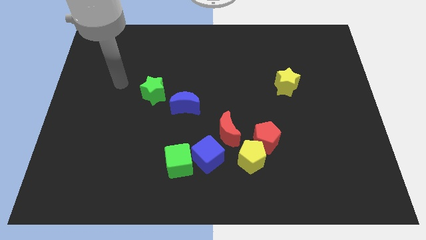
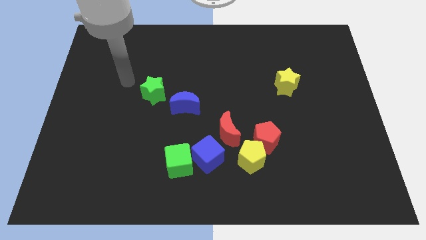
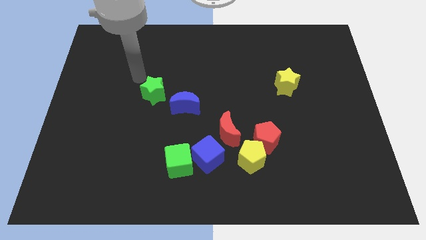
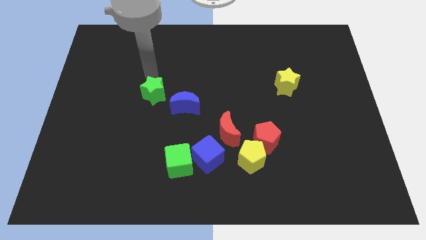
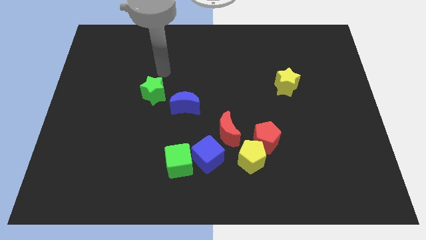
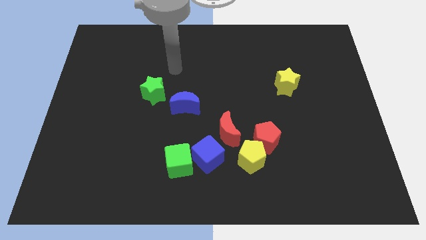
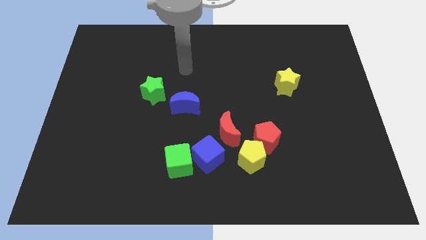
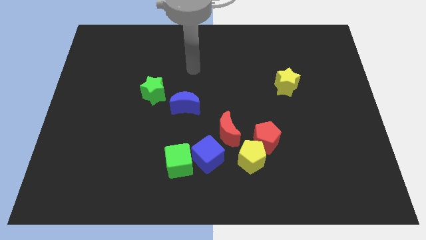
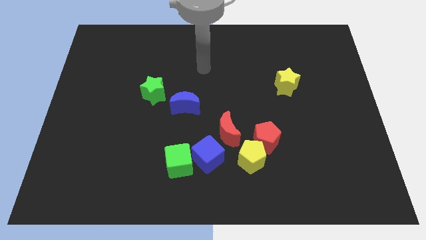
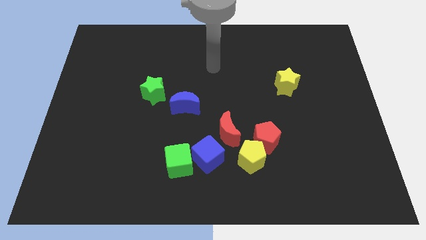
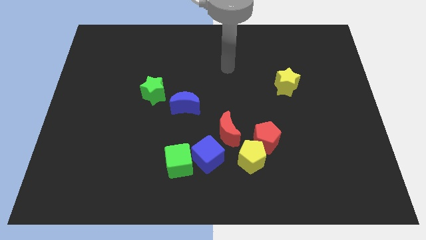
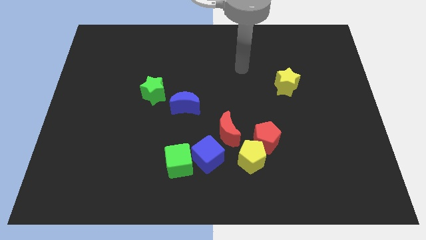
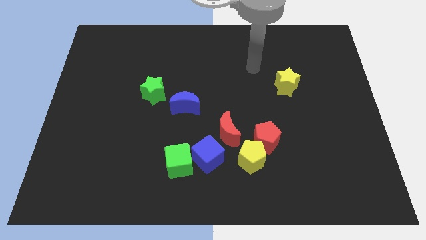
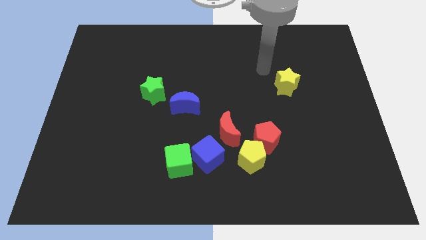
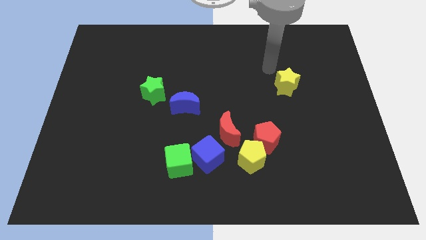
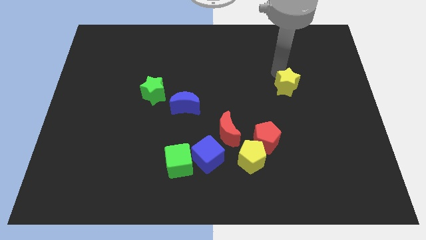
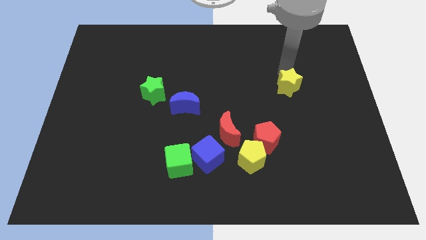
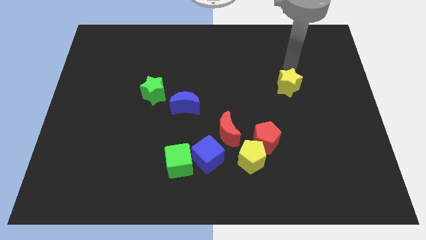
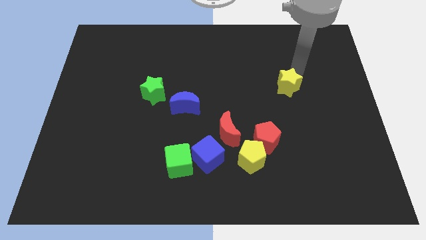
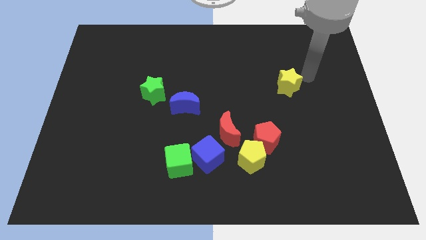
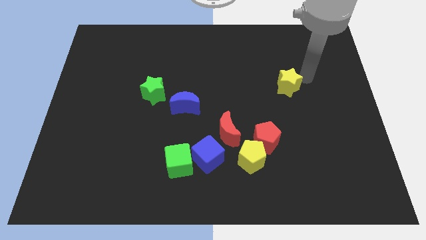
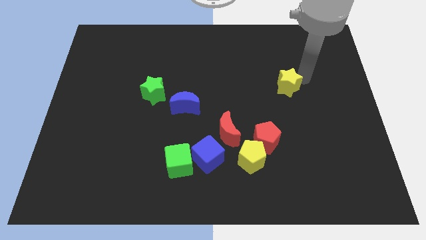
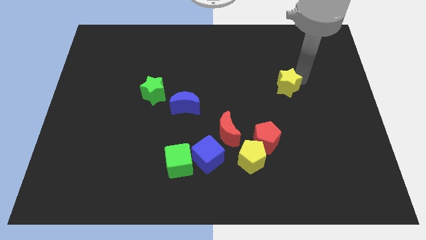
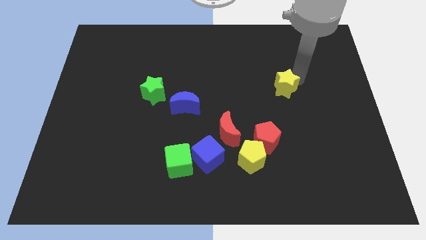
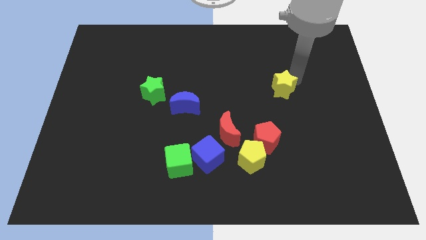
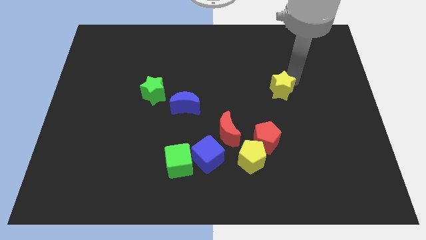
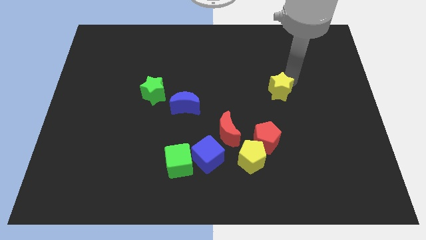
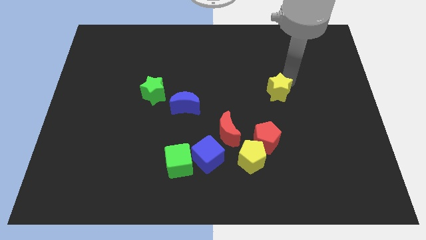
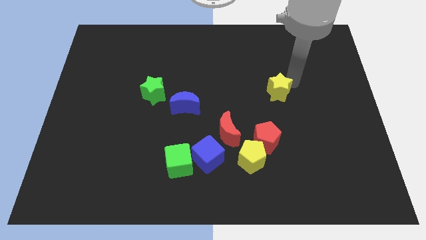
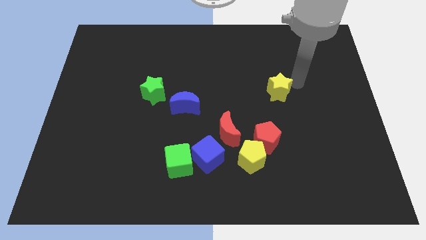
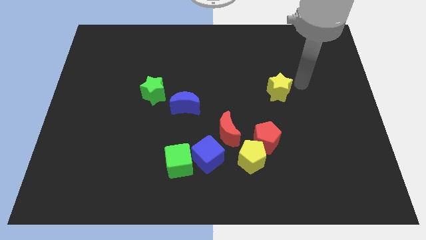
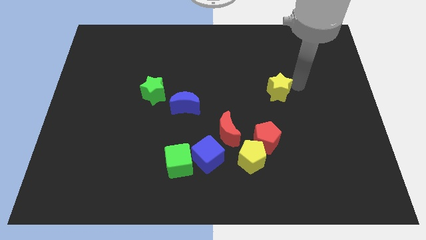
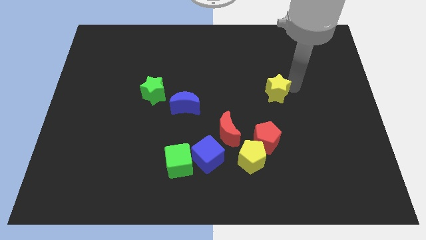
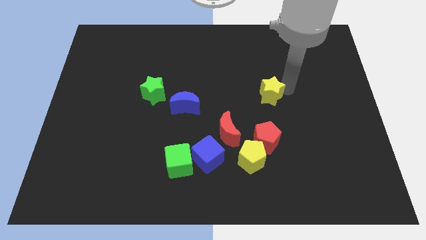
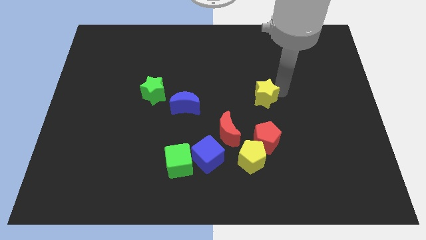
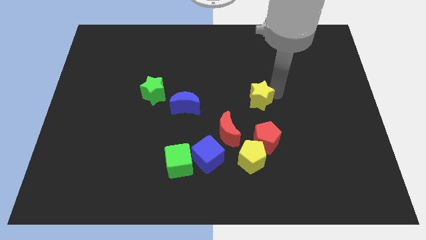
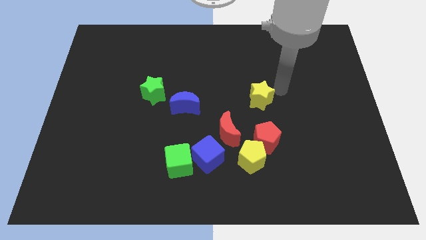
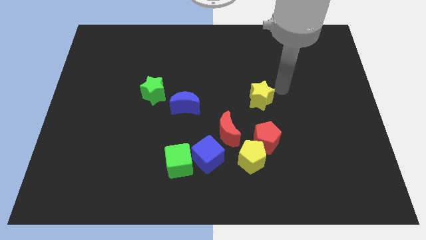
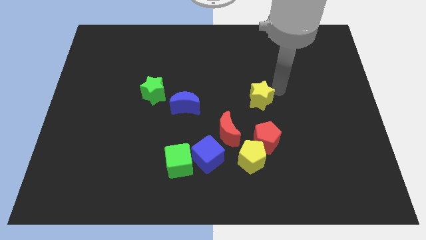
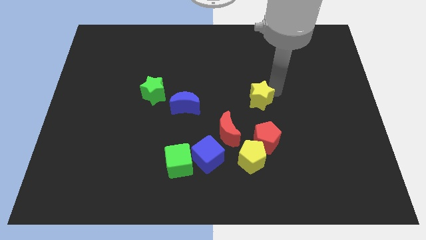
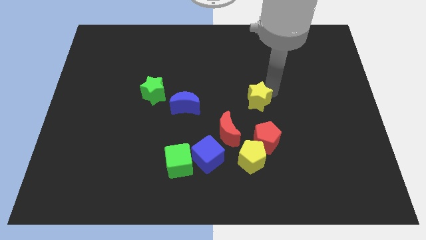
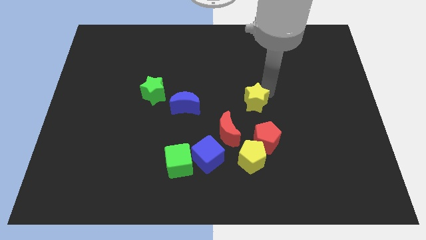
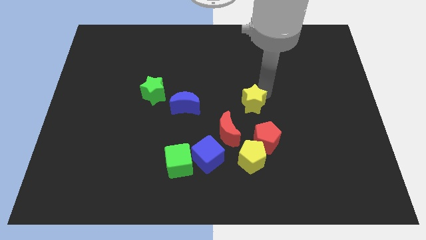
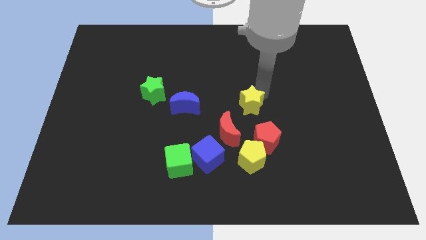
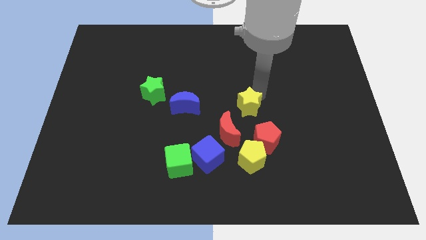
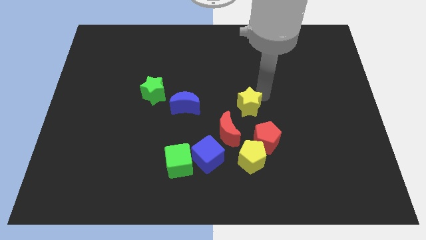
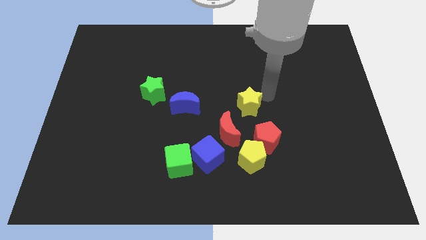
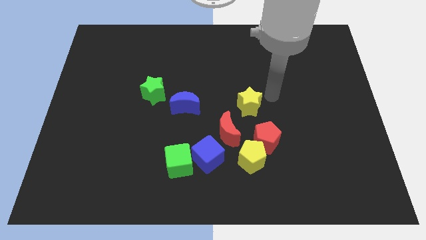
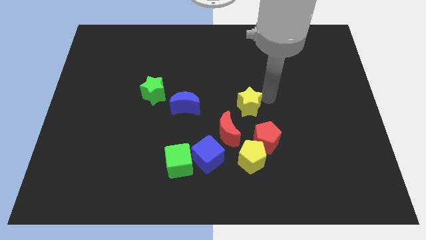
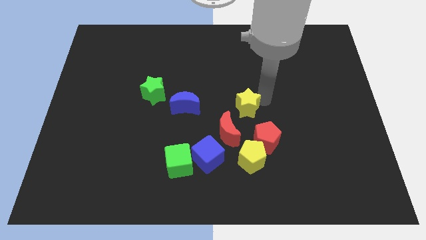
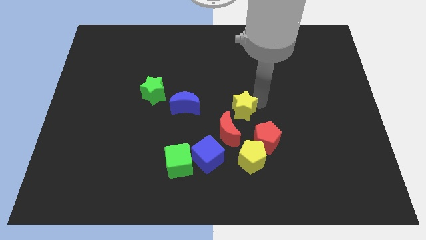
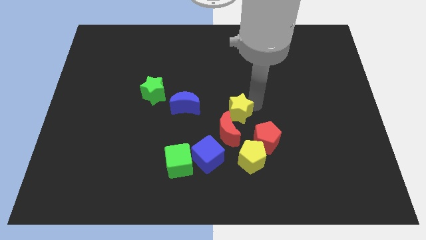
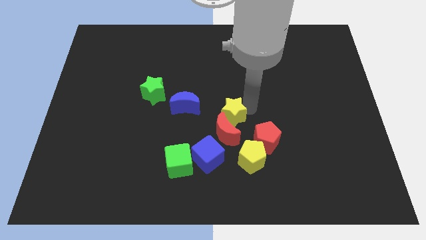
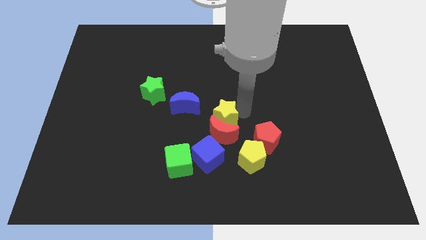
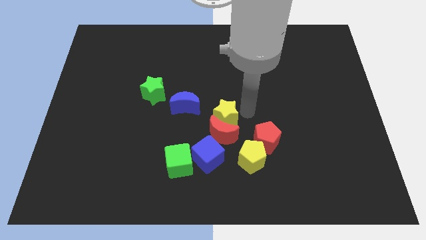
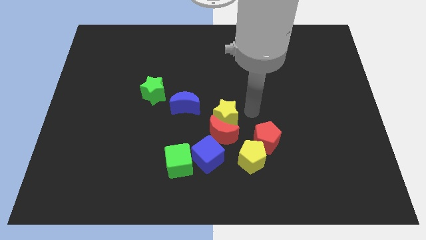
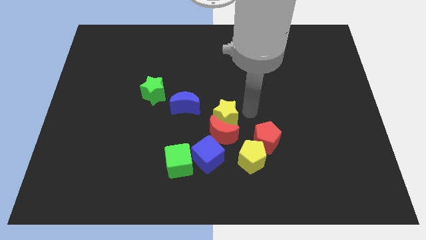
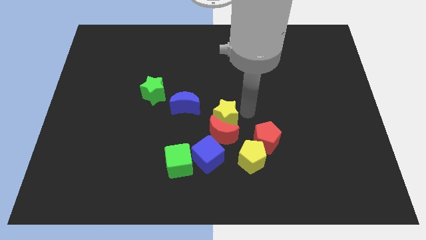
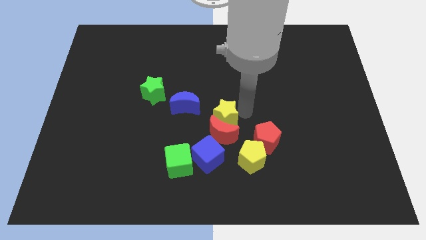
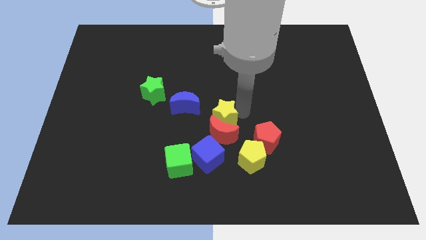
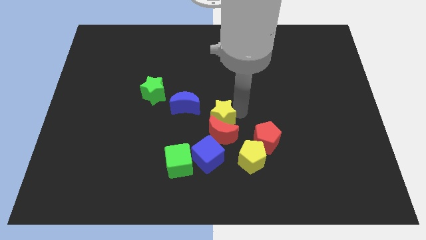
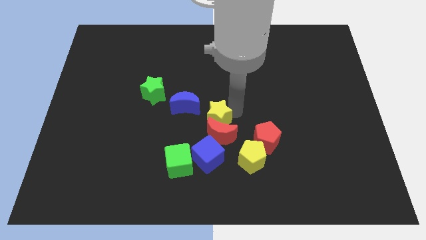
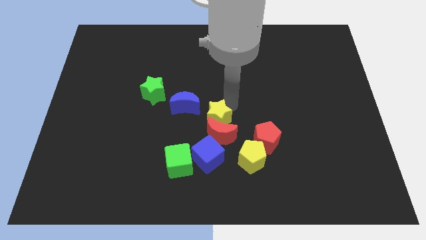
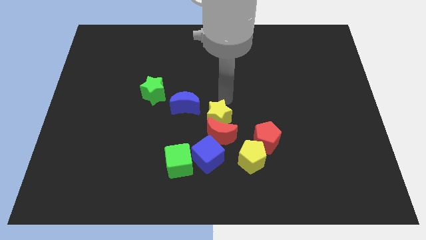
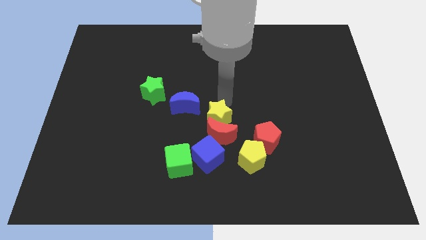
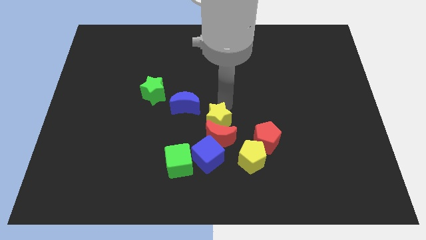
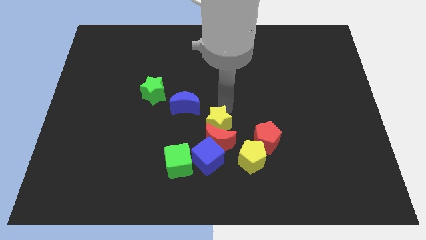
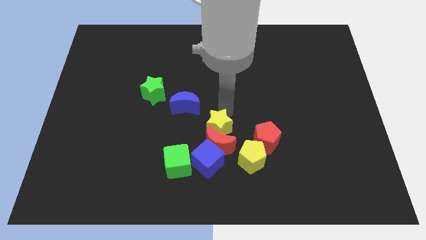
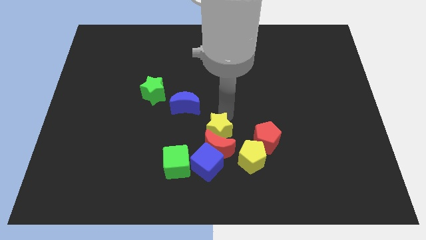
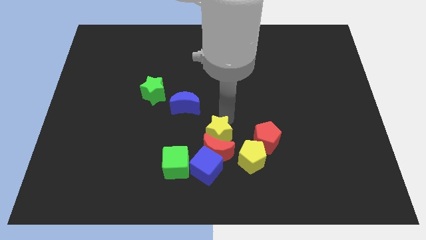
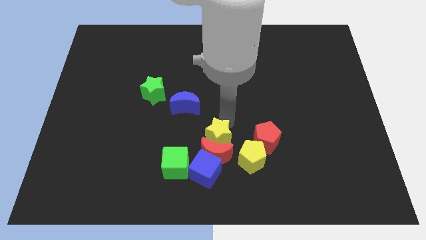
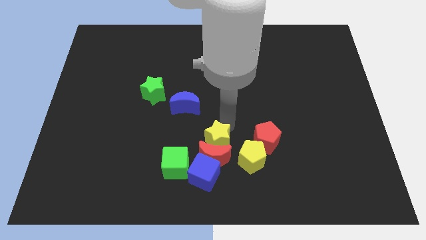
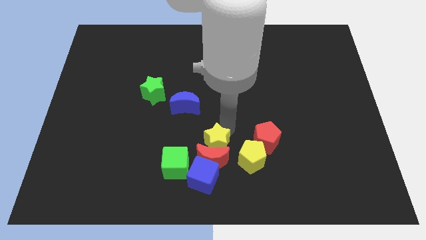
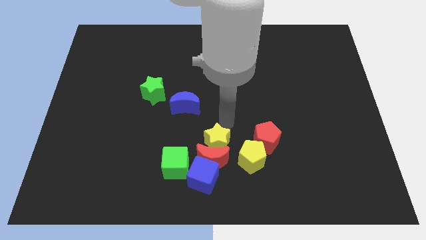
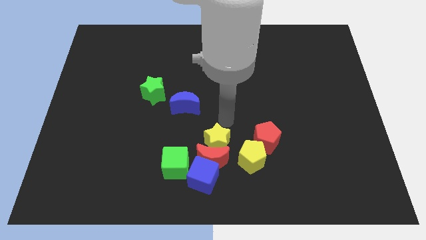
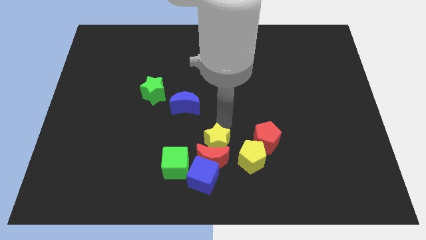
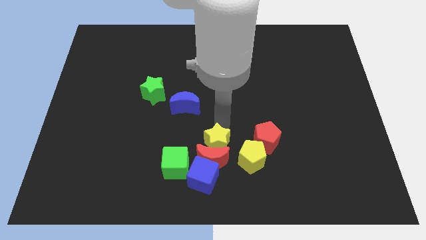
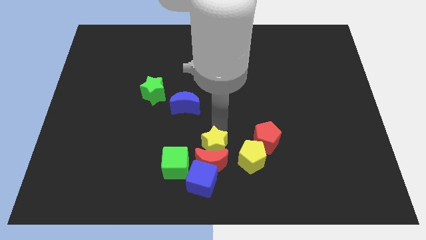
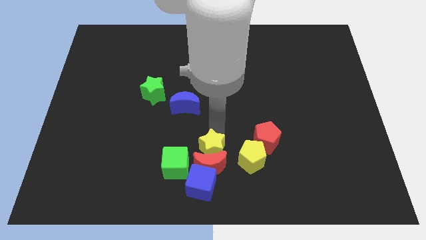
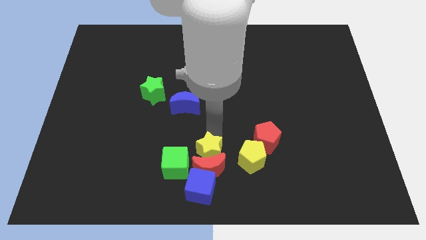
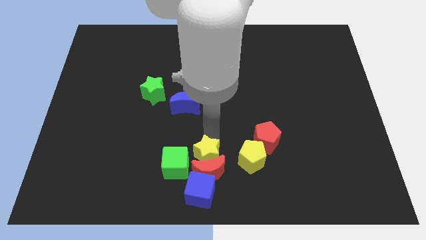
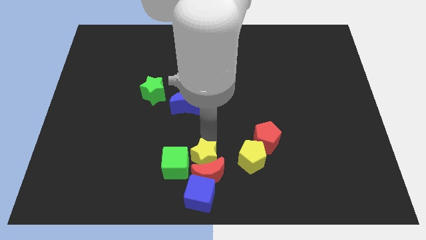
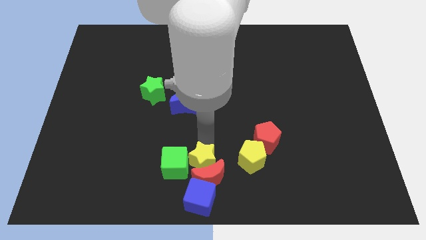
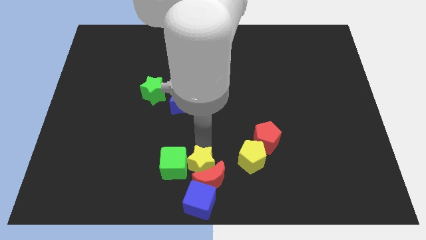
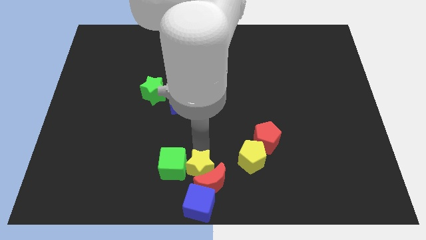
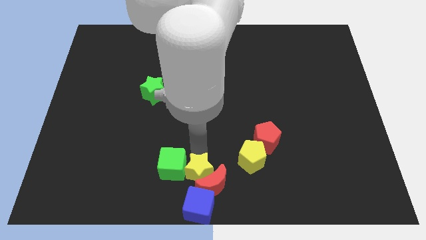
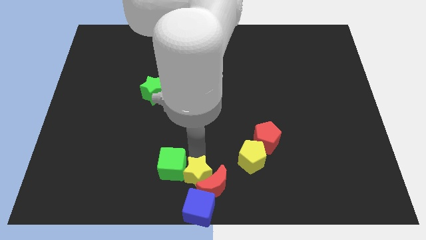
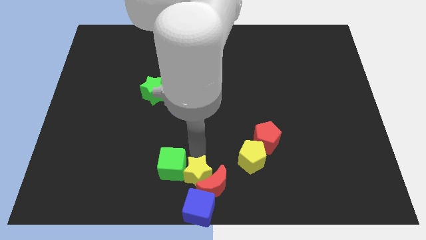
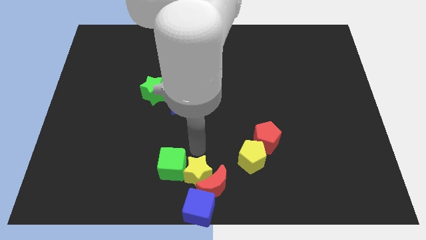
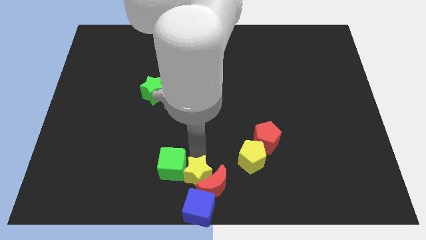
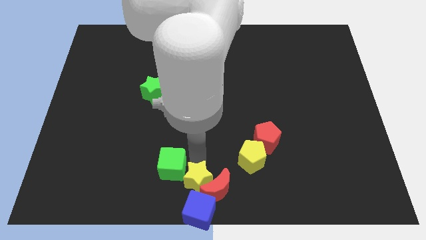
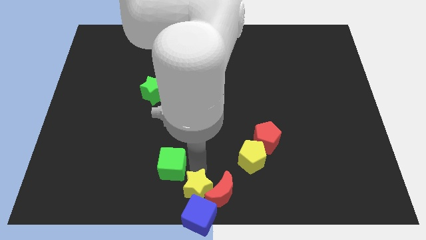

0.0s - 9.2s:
put the yellow star to the blue cube
